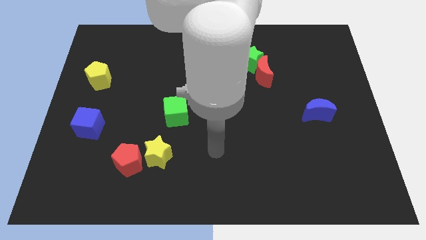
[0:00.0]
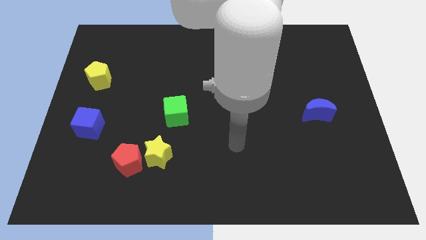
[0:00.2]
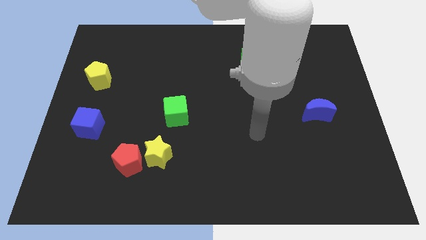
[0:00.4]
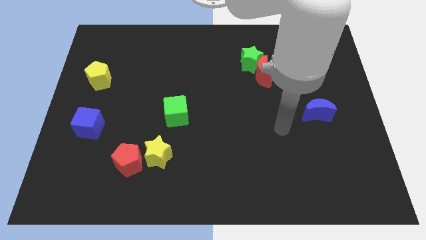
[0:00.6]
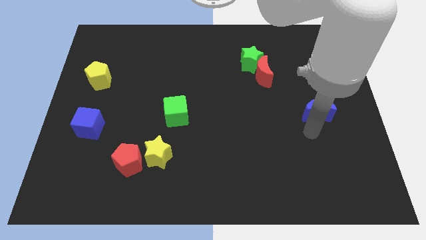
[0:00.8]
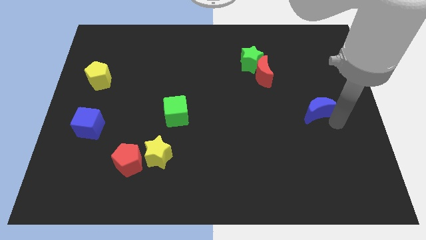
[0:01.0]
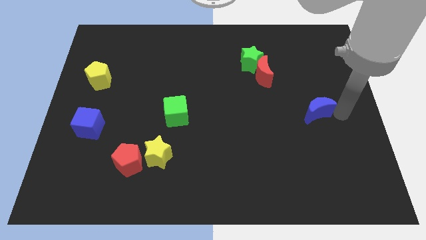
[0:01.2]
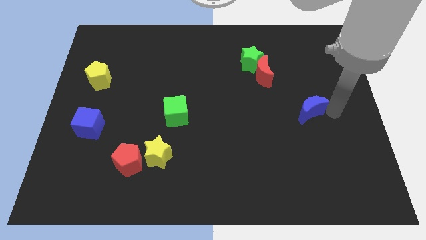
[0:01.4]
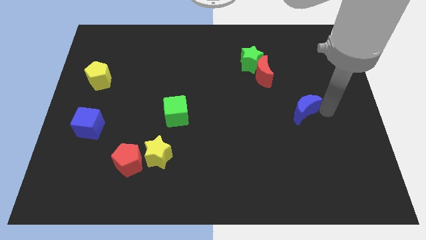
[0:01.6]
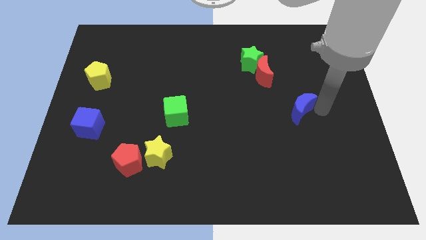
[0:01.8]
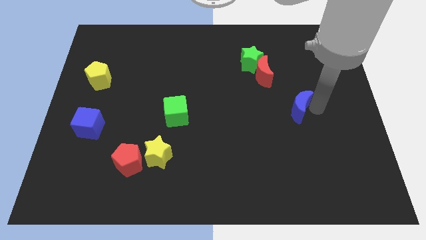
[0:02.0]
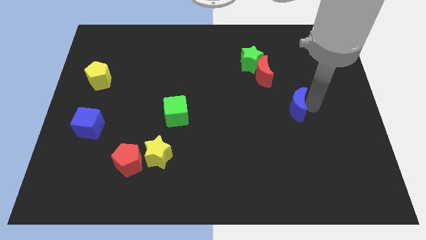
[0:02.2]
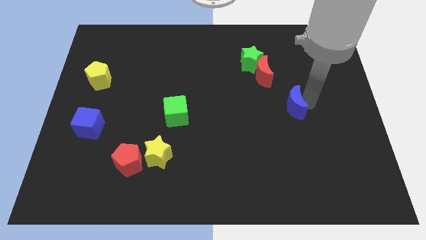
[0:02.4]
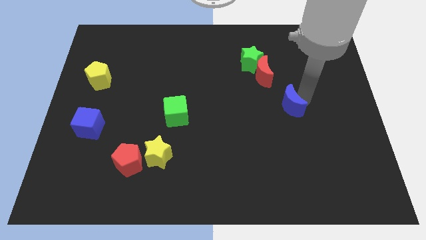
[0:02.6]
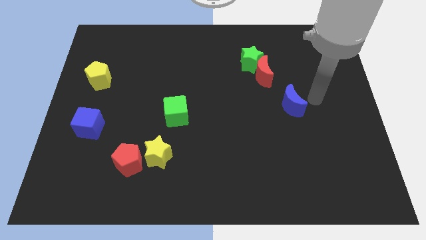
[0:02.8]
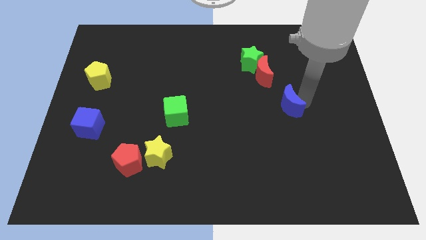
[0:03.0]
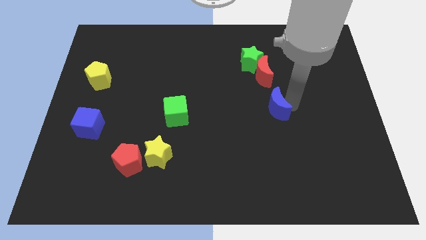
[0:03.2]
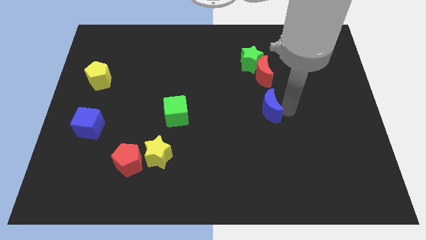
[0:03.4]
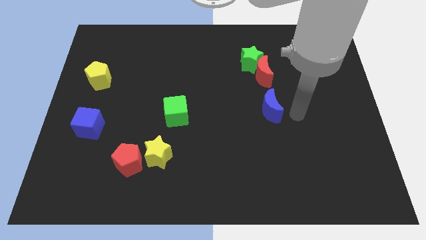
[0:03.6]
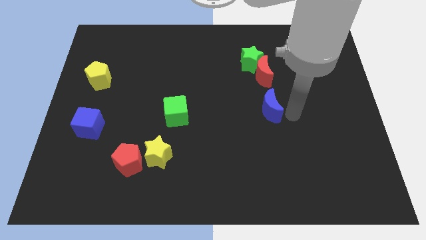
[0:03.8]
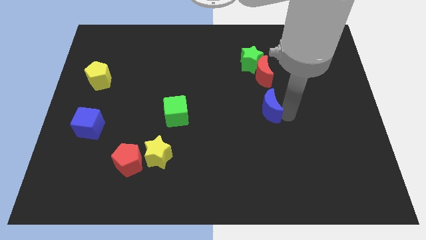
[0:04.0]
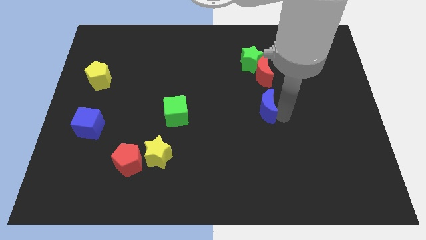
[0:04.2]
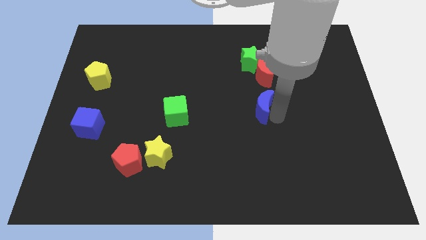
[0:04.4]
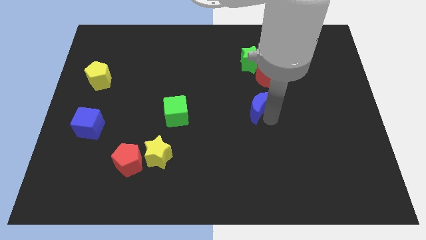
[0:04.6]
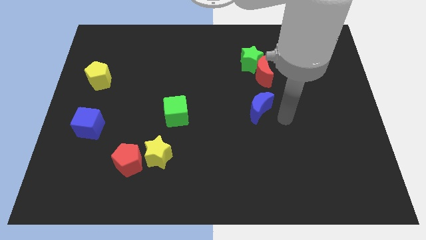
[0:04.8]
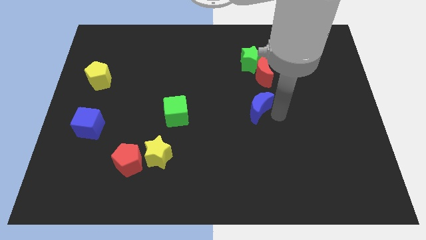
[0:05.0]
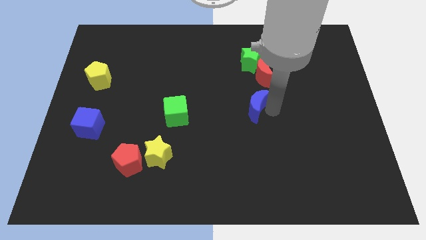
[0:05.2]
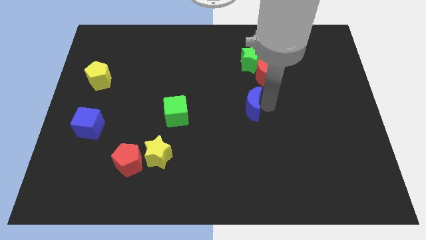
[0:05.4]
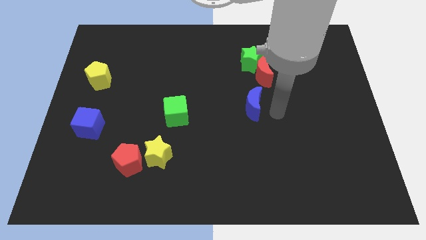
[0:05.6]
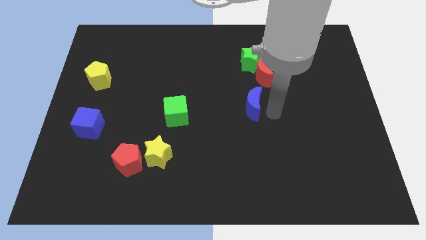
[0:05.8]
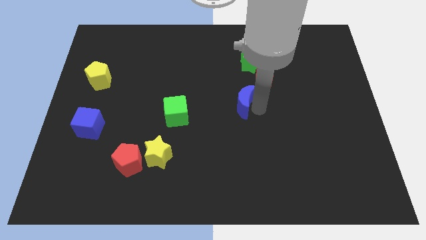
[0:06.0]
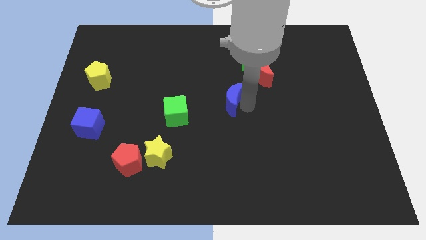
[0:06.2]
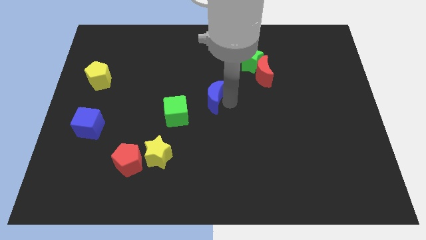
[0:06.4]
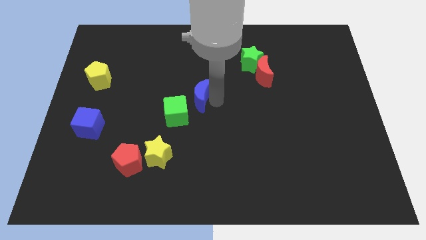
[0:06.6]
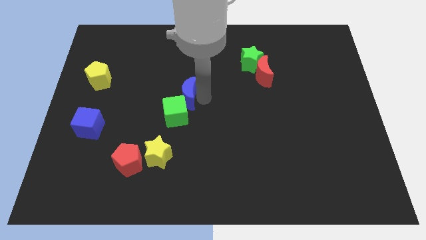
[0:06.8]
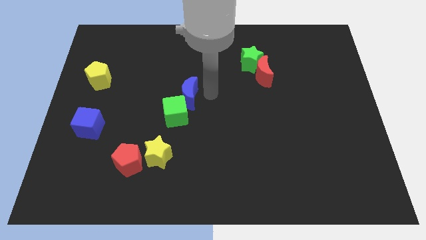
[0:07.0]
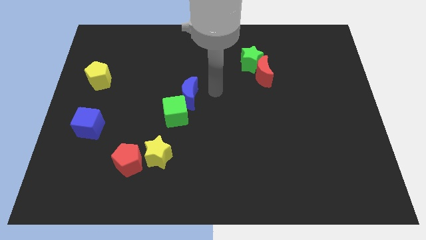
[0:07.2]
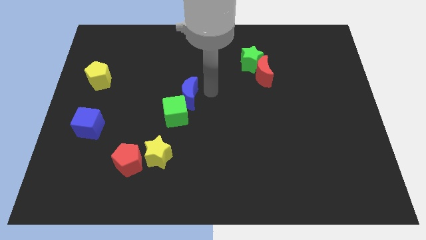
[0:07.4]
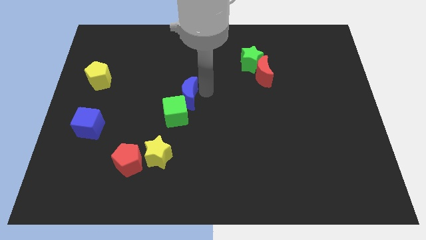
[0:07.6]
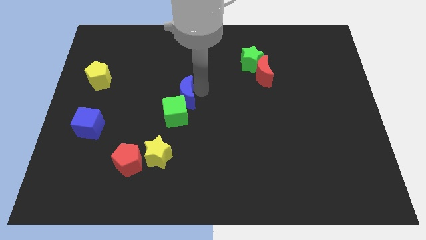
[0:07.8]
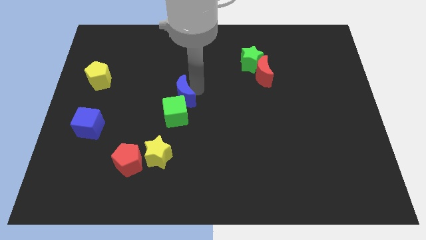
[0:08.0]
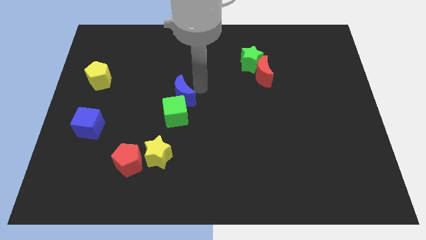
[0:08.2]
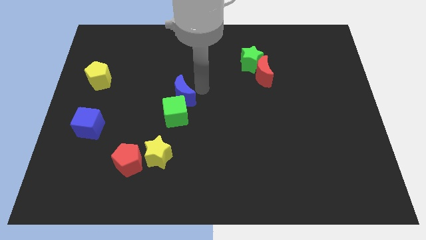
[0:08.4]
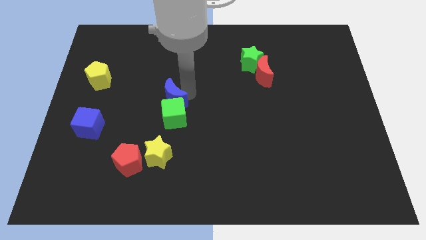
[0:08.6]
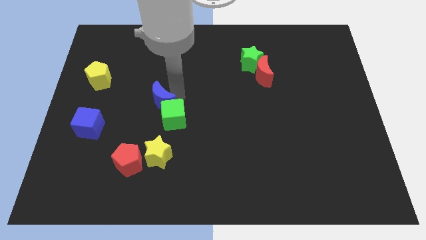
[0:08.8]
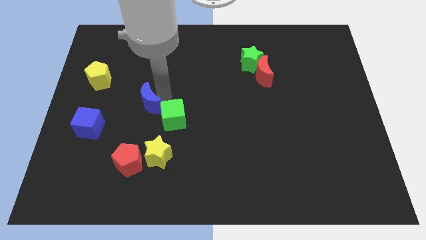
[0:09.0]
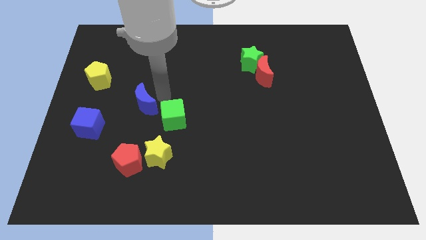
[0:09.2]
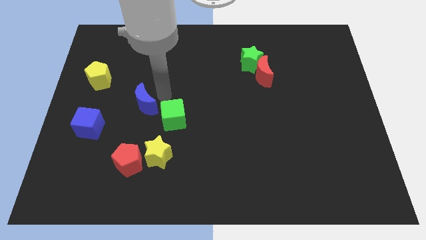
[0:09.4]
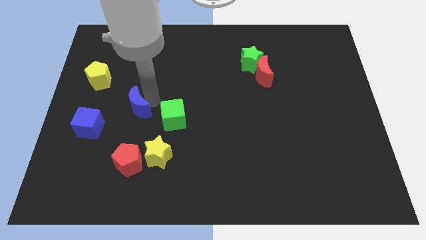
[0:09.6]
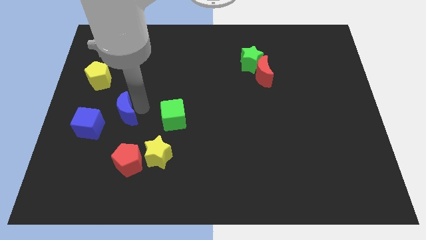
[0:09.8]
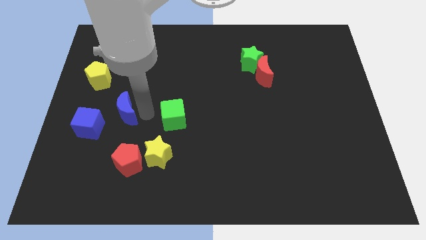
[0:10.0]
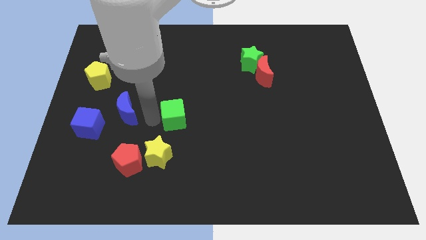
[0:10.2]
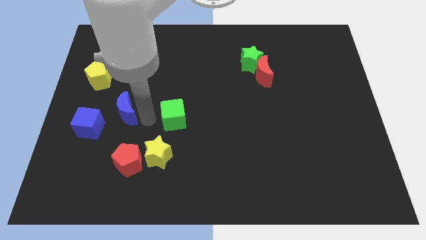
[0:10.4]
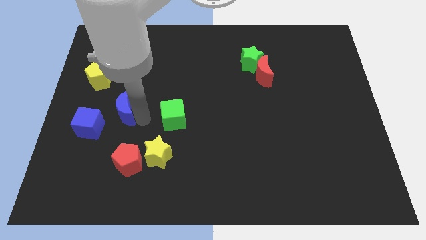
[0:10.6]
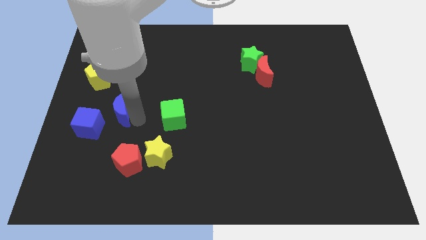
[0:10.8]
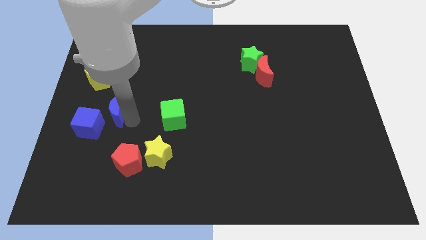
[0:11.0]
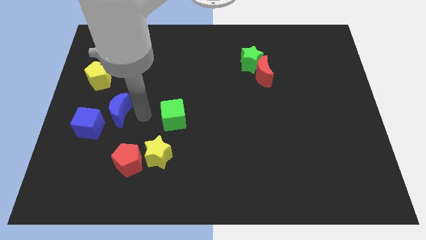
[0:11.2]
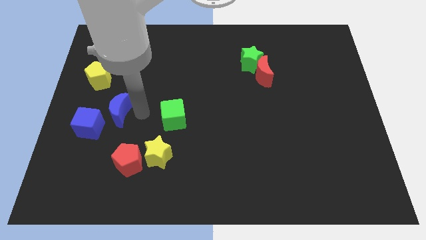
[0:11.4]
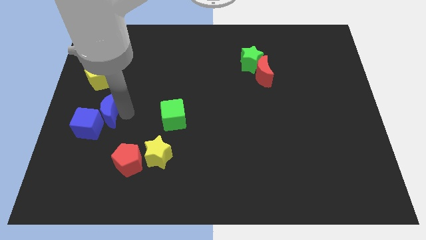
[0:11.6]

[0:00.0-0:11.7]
move the blue moon below the yellow pentagon
